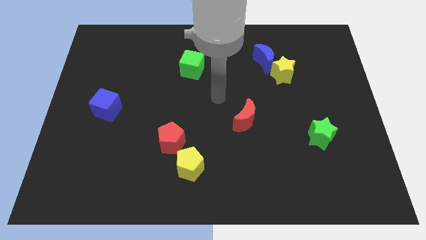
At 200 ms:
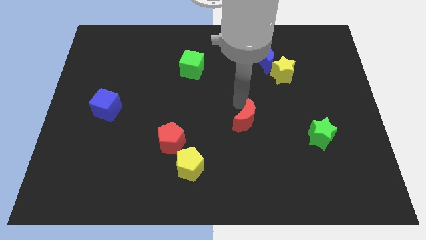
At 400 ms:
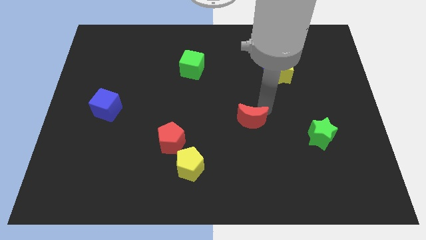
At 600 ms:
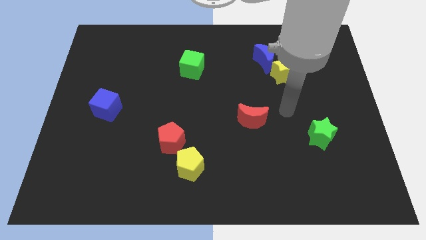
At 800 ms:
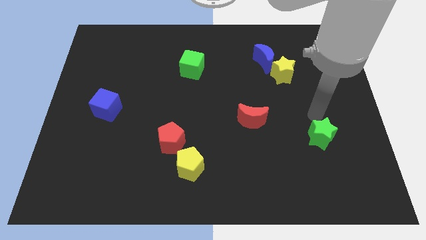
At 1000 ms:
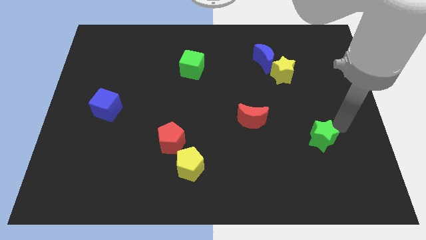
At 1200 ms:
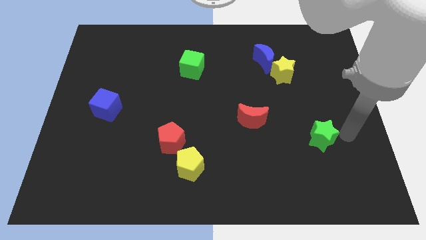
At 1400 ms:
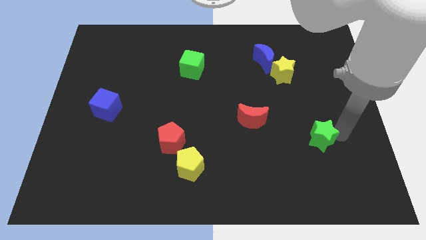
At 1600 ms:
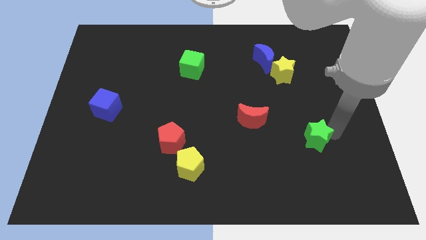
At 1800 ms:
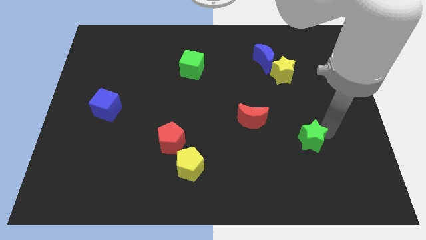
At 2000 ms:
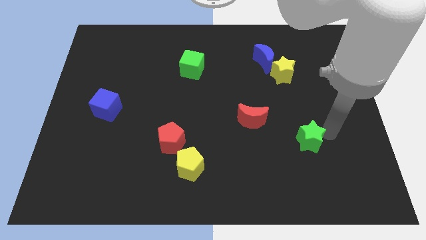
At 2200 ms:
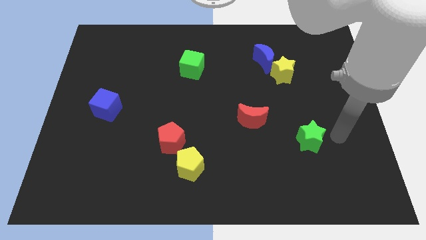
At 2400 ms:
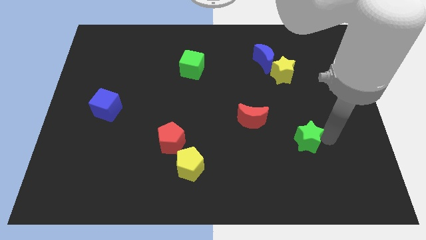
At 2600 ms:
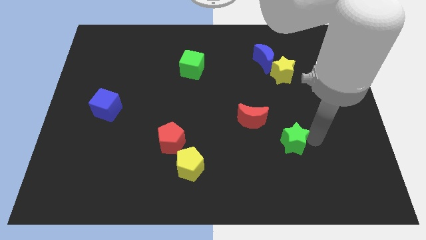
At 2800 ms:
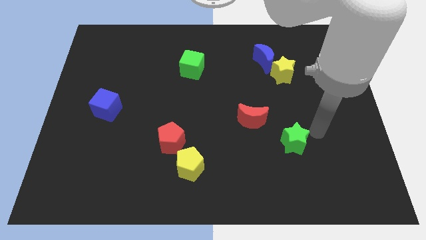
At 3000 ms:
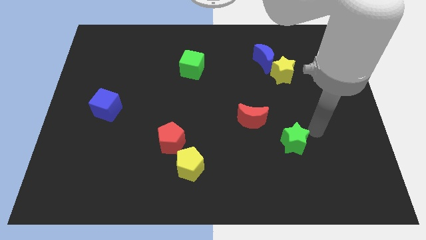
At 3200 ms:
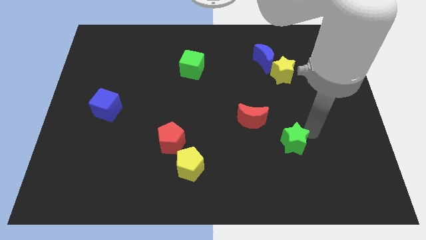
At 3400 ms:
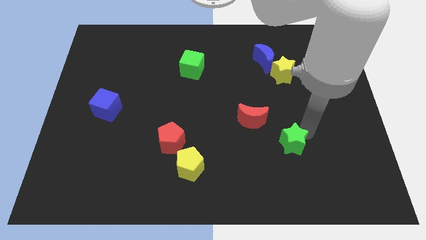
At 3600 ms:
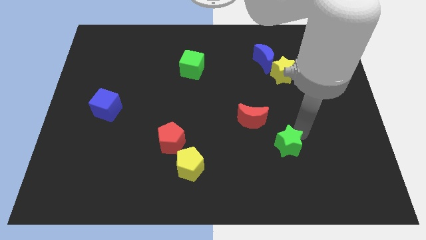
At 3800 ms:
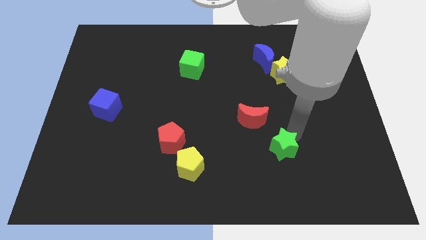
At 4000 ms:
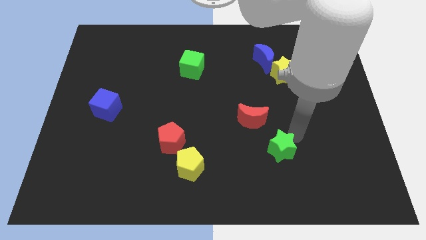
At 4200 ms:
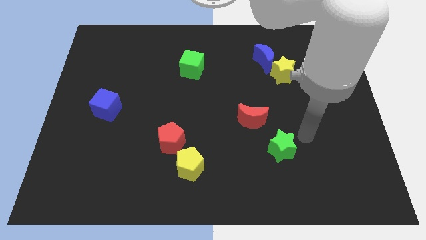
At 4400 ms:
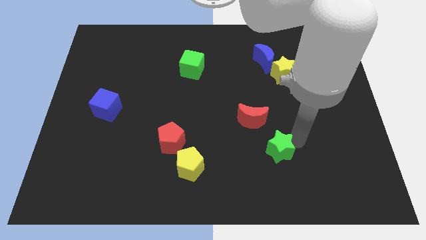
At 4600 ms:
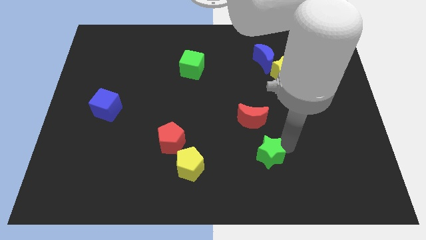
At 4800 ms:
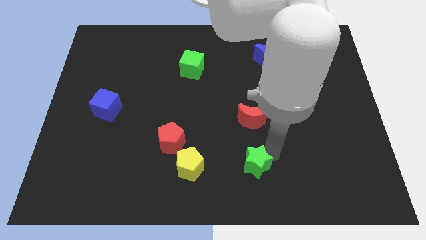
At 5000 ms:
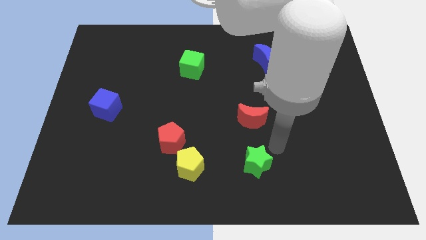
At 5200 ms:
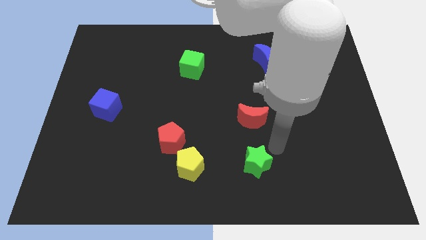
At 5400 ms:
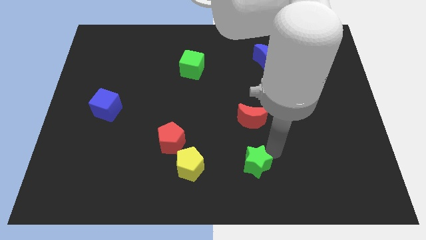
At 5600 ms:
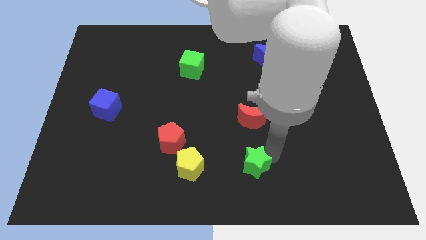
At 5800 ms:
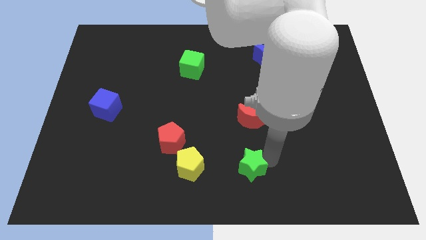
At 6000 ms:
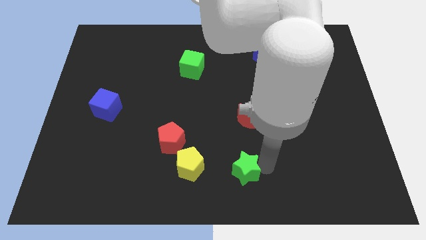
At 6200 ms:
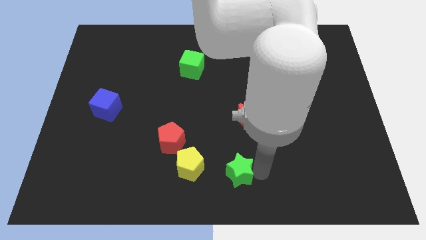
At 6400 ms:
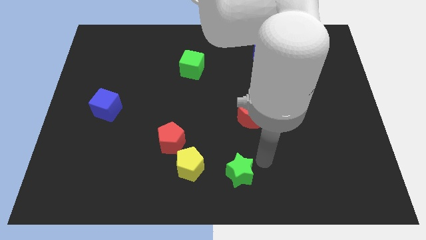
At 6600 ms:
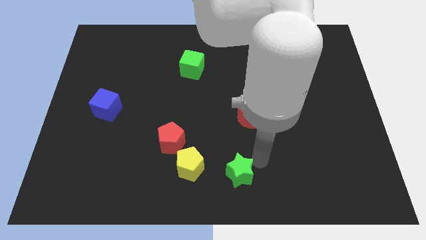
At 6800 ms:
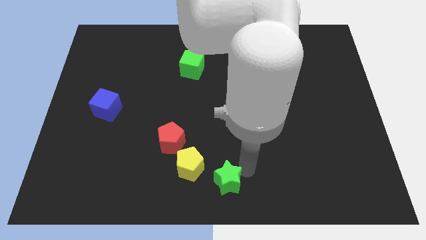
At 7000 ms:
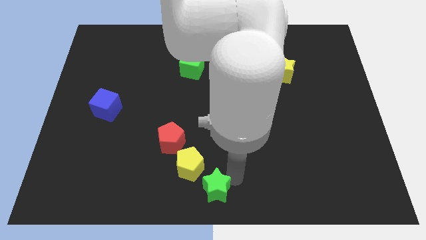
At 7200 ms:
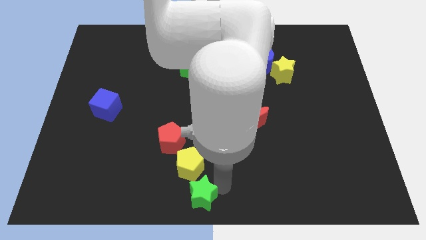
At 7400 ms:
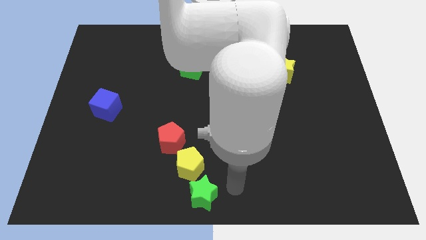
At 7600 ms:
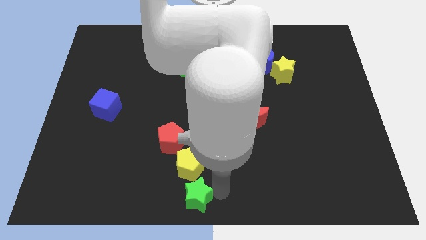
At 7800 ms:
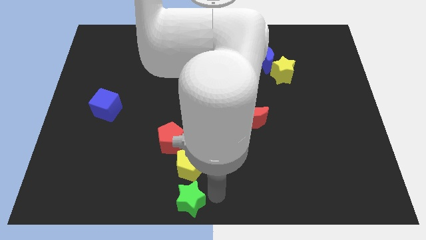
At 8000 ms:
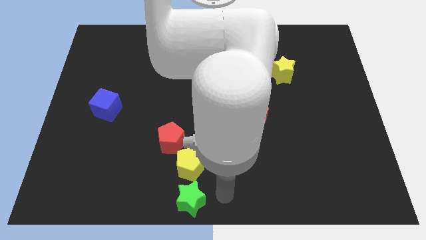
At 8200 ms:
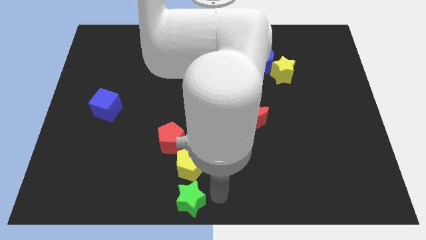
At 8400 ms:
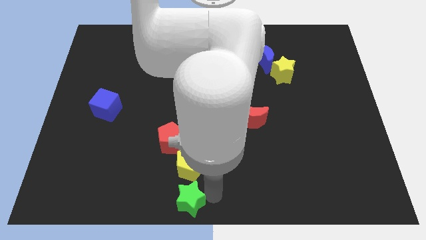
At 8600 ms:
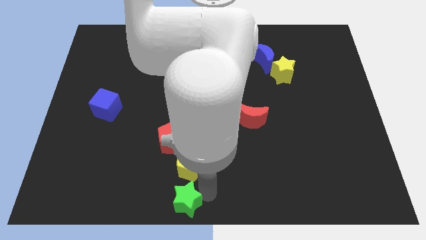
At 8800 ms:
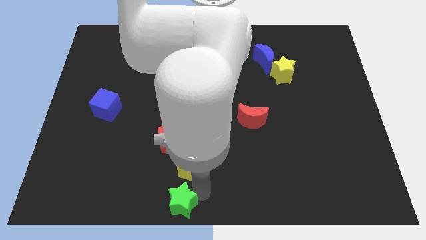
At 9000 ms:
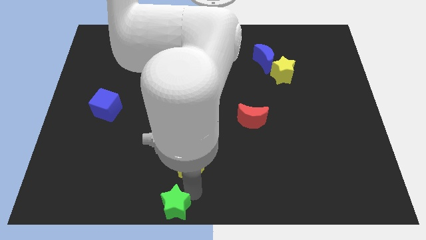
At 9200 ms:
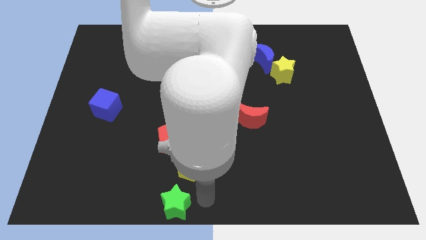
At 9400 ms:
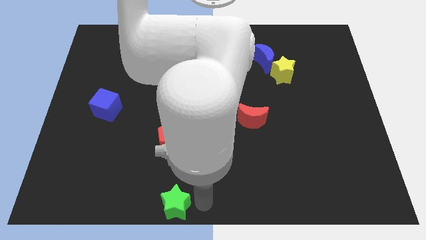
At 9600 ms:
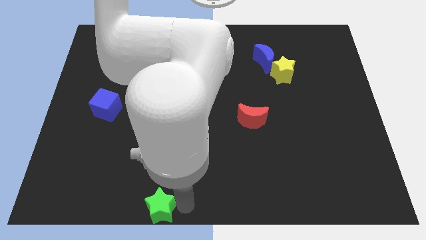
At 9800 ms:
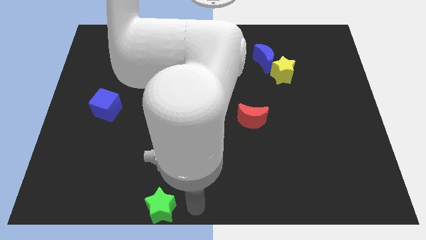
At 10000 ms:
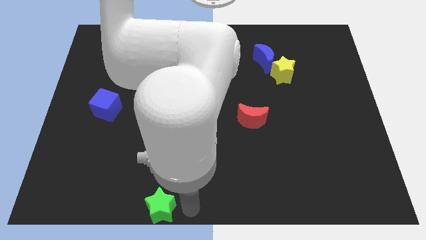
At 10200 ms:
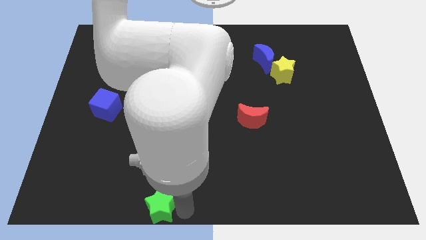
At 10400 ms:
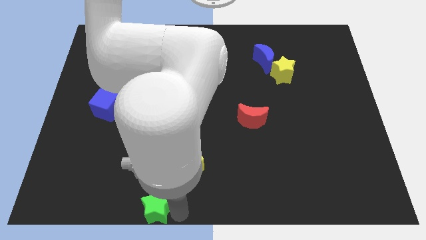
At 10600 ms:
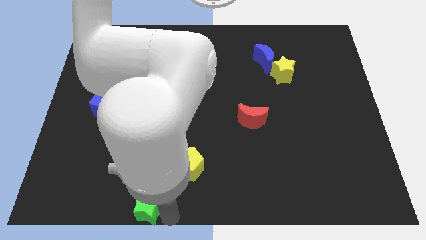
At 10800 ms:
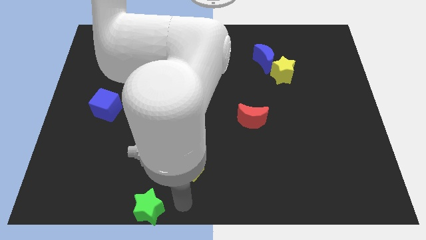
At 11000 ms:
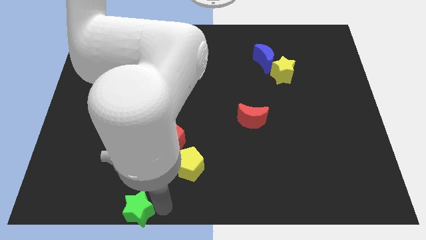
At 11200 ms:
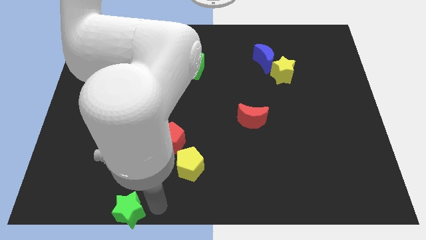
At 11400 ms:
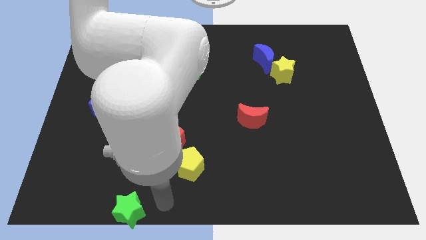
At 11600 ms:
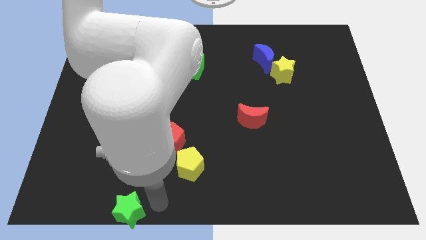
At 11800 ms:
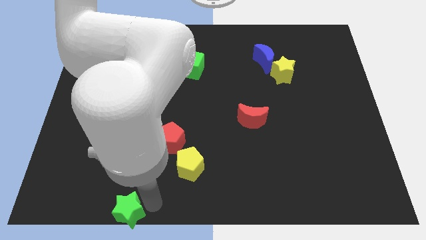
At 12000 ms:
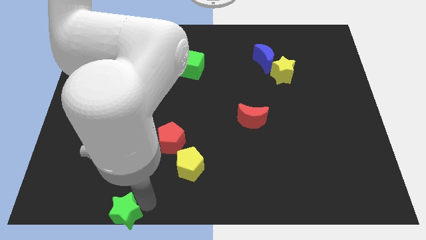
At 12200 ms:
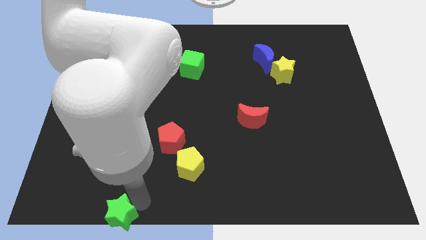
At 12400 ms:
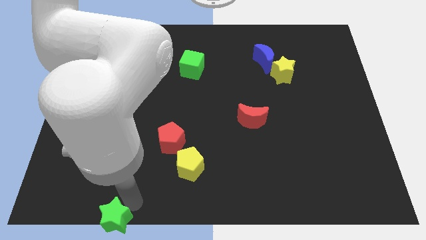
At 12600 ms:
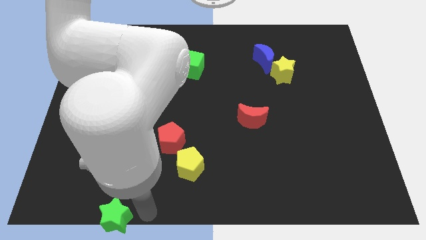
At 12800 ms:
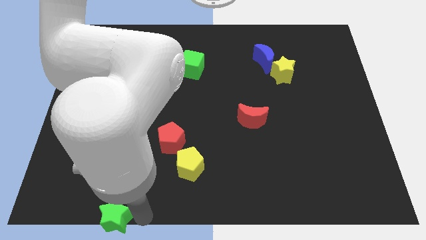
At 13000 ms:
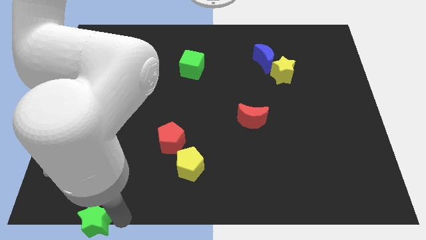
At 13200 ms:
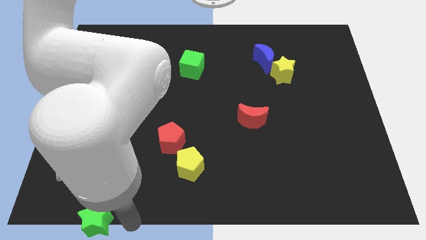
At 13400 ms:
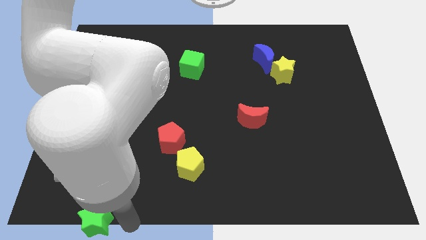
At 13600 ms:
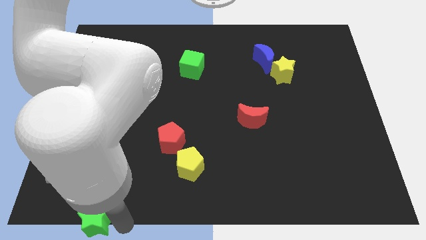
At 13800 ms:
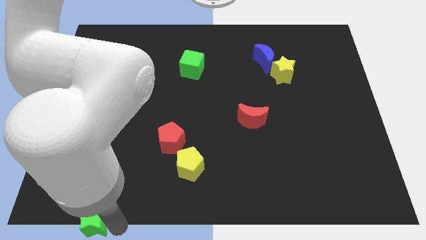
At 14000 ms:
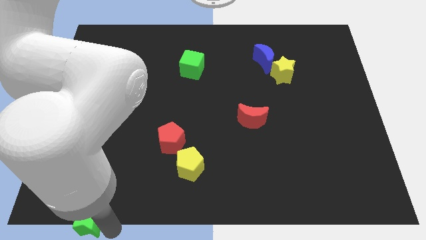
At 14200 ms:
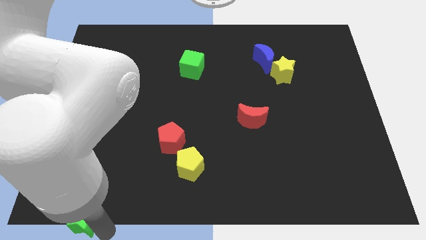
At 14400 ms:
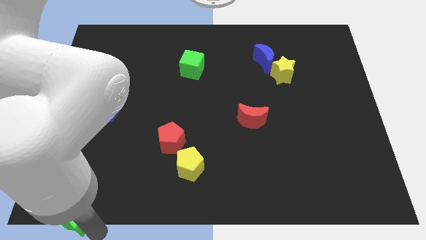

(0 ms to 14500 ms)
put the green star to the bottom left

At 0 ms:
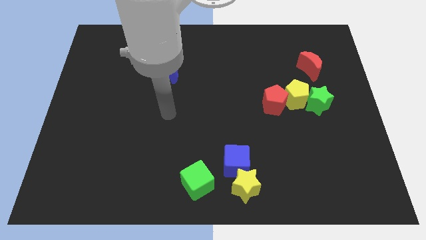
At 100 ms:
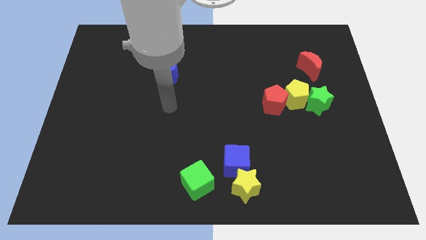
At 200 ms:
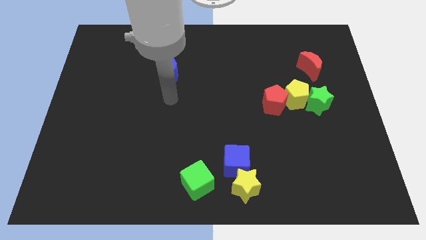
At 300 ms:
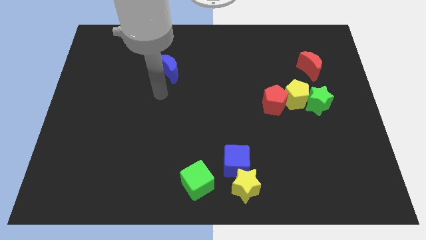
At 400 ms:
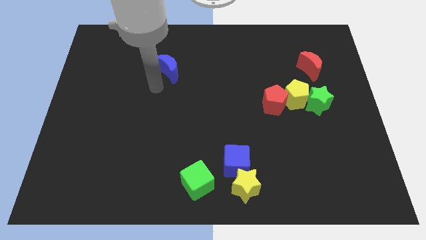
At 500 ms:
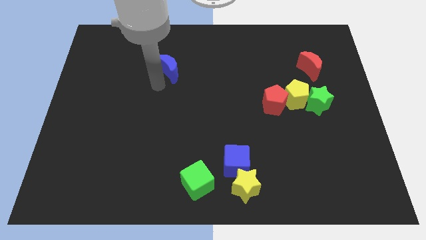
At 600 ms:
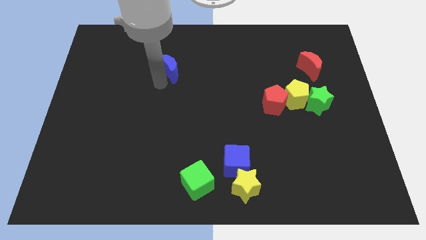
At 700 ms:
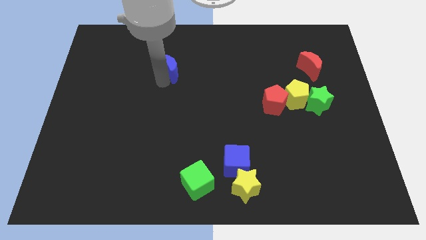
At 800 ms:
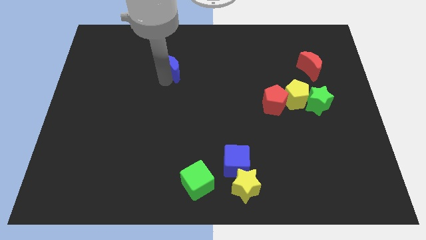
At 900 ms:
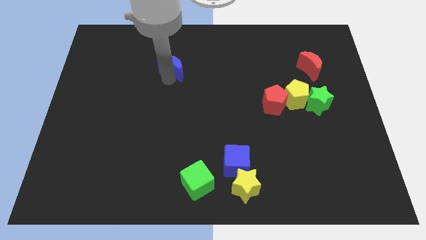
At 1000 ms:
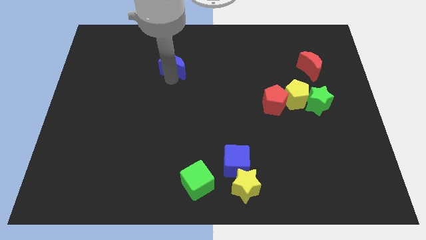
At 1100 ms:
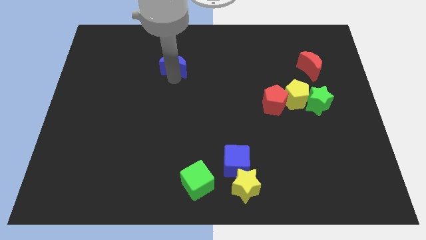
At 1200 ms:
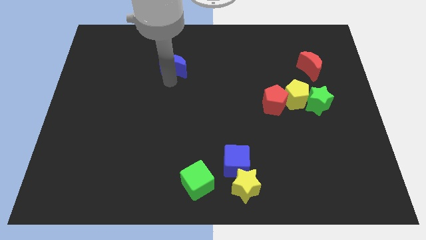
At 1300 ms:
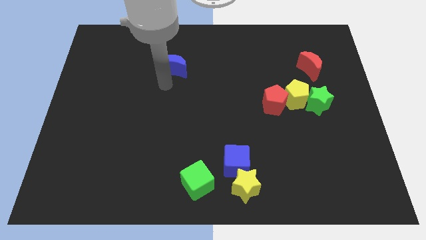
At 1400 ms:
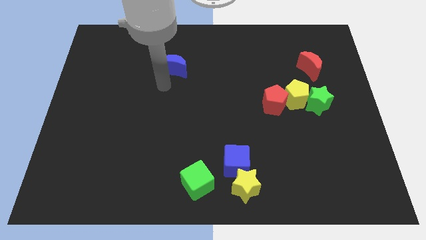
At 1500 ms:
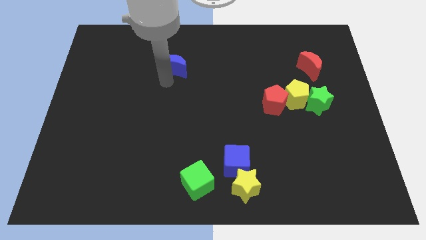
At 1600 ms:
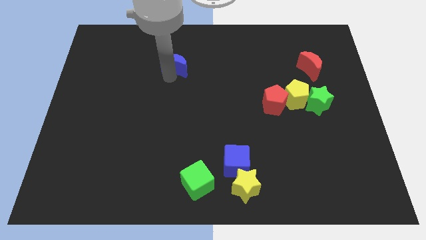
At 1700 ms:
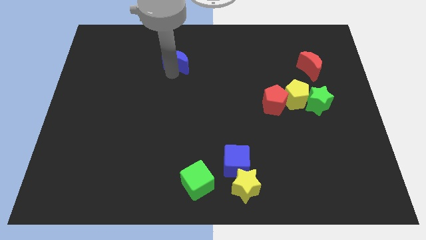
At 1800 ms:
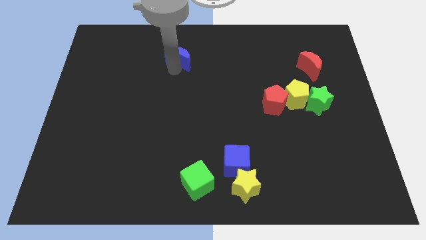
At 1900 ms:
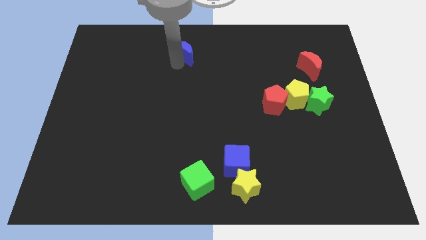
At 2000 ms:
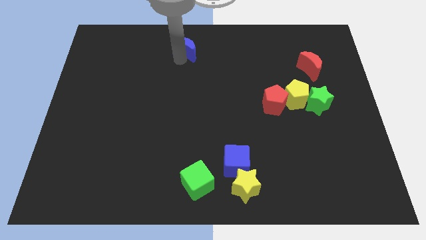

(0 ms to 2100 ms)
push the blue moon to the towards your base
